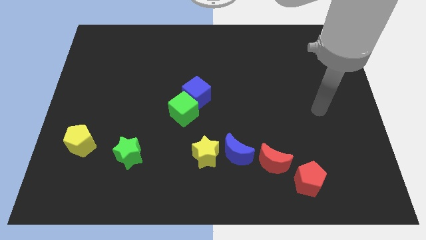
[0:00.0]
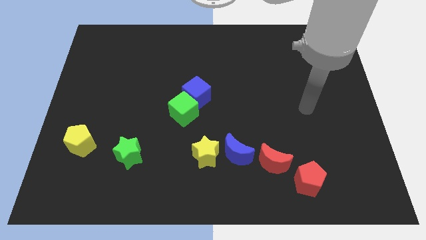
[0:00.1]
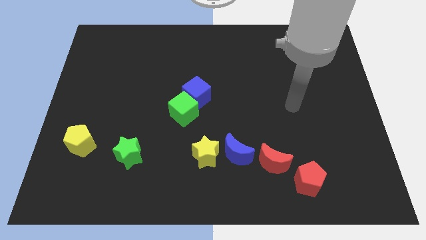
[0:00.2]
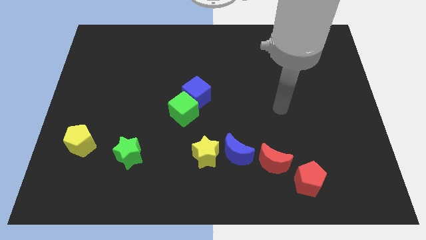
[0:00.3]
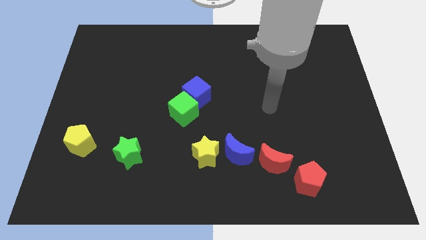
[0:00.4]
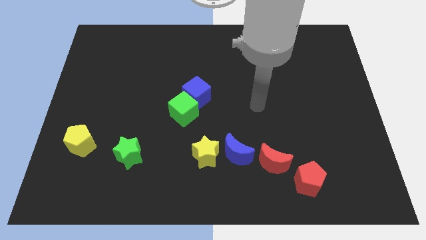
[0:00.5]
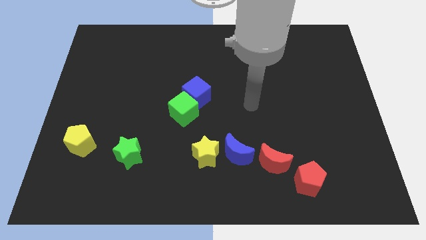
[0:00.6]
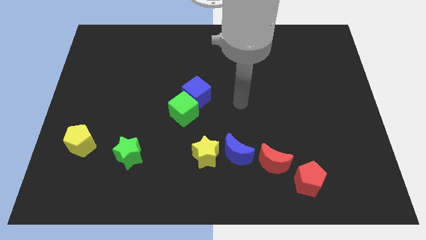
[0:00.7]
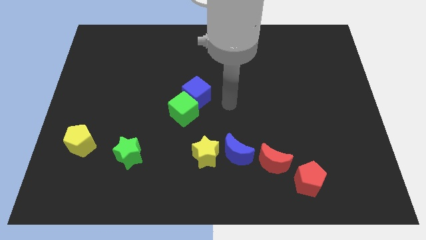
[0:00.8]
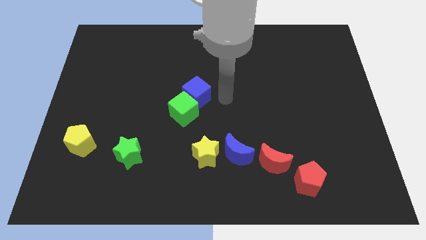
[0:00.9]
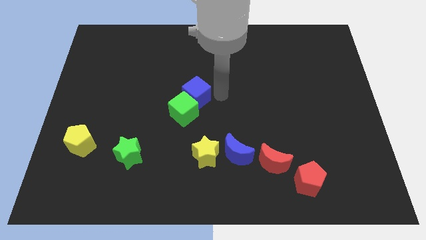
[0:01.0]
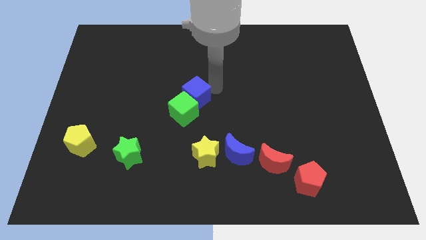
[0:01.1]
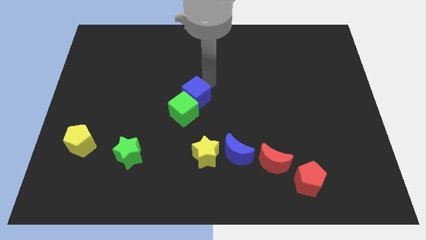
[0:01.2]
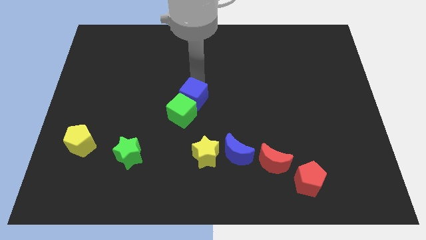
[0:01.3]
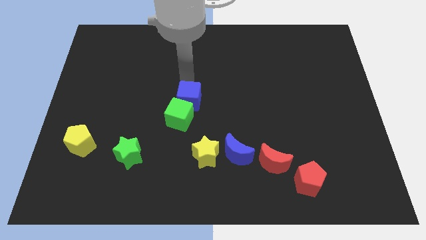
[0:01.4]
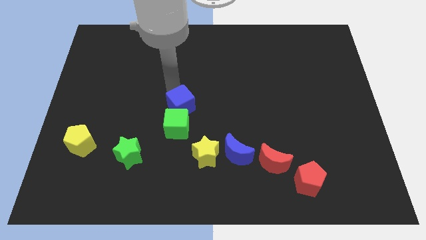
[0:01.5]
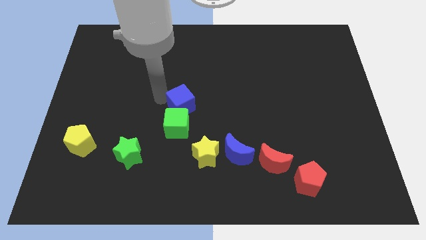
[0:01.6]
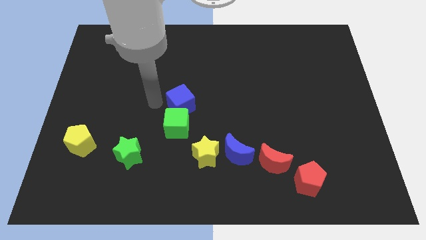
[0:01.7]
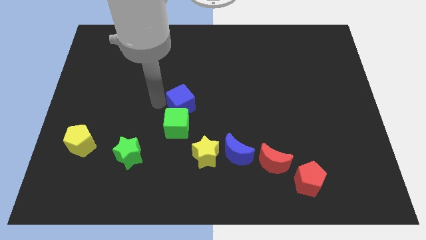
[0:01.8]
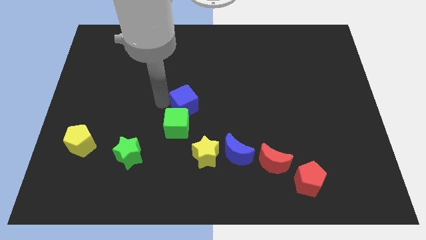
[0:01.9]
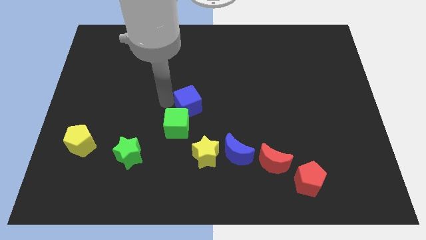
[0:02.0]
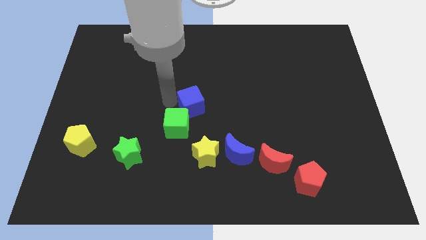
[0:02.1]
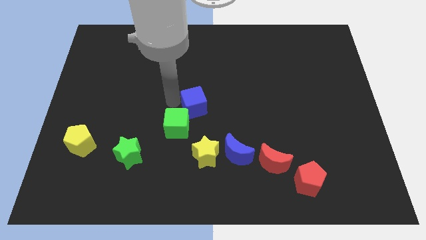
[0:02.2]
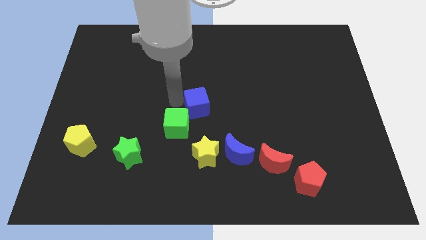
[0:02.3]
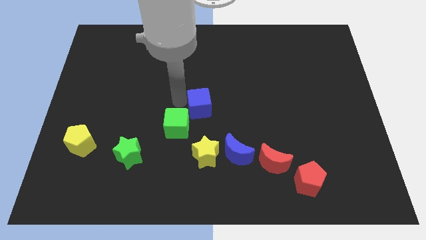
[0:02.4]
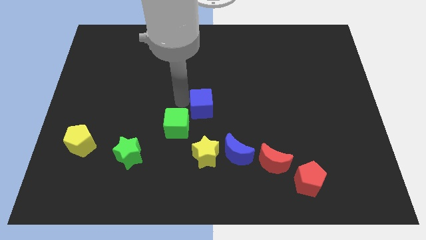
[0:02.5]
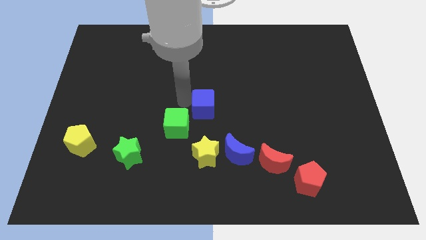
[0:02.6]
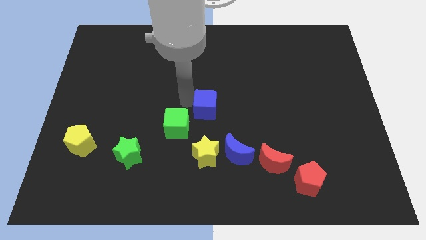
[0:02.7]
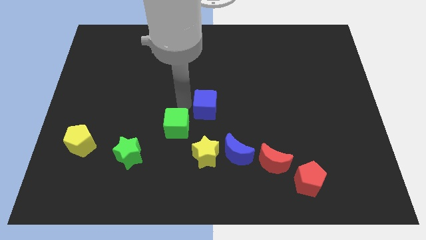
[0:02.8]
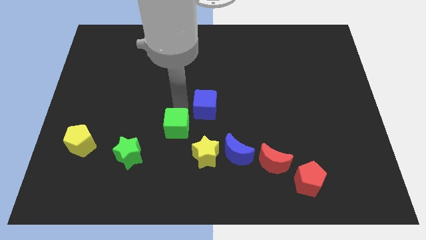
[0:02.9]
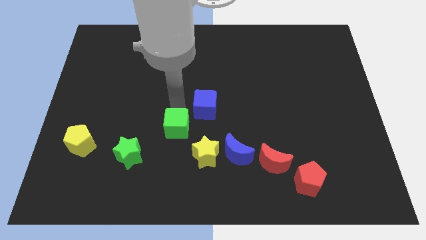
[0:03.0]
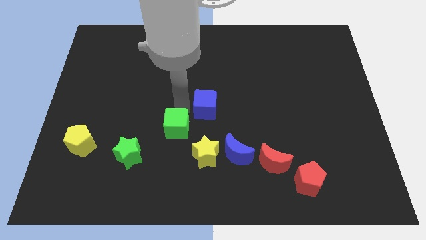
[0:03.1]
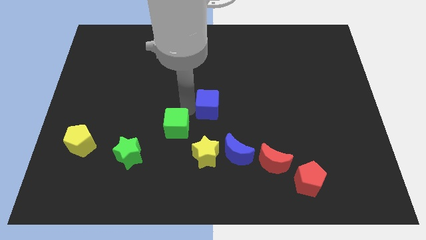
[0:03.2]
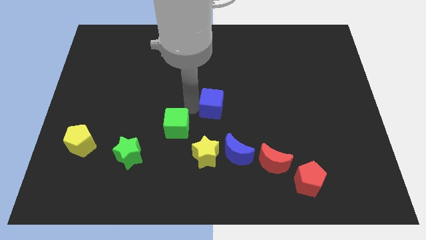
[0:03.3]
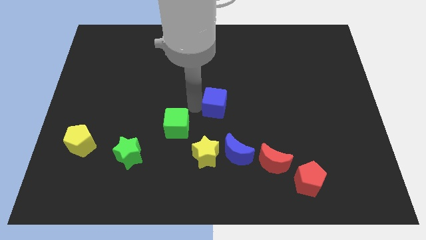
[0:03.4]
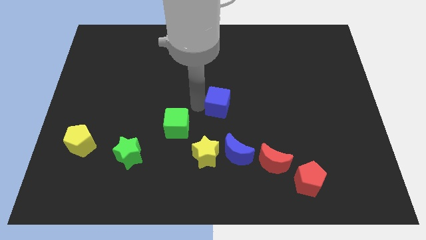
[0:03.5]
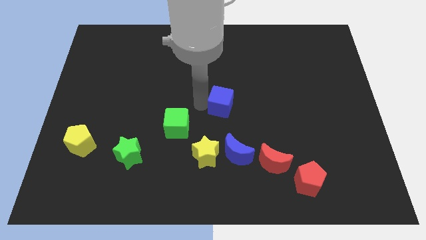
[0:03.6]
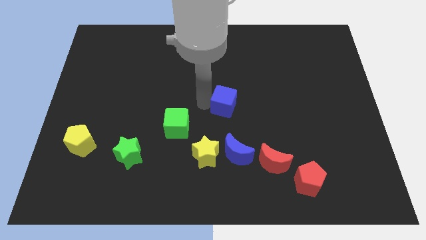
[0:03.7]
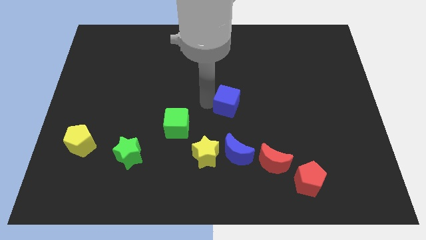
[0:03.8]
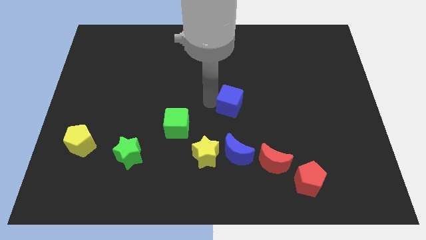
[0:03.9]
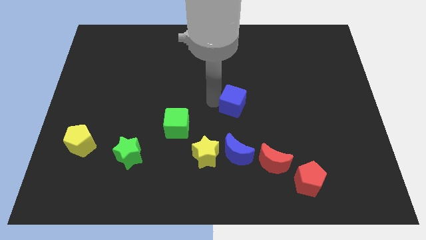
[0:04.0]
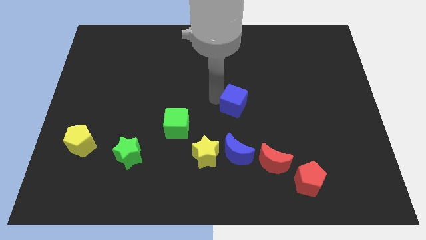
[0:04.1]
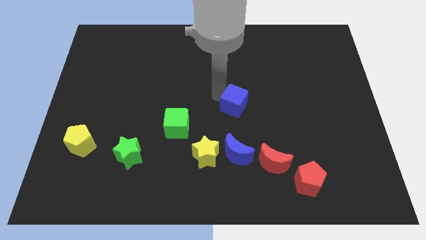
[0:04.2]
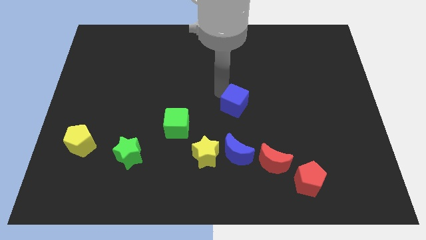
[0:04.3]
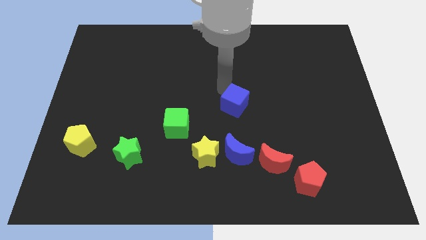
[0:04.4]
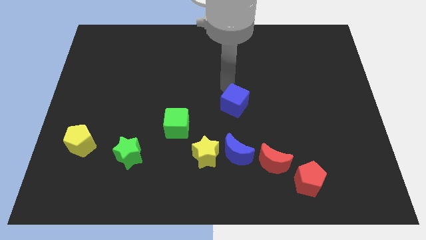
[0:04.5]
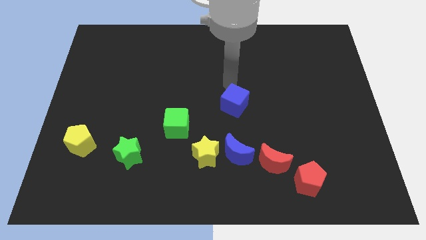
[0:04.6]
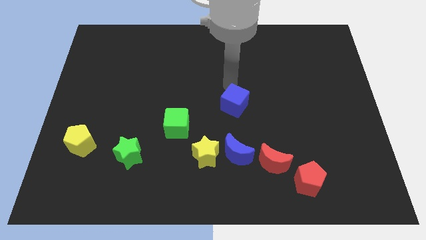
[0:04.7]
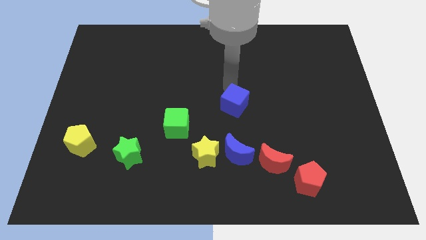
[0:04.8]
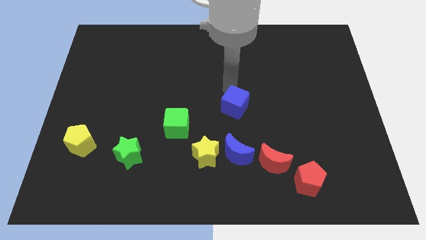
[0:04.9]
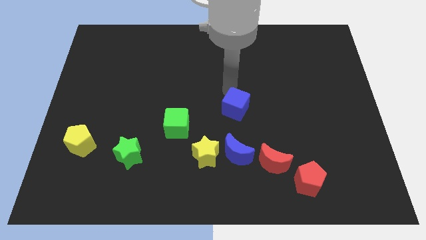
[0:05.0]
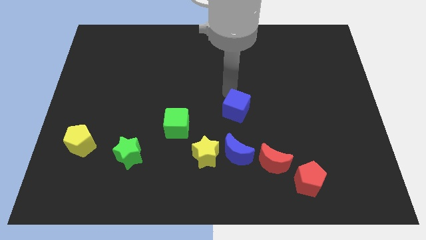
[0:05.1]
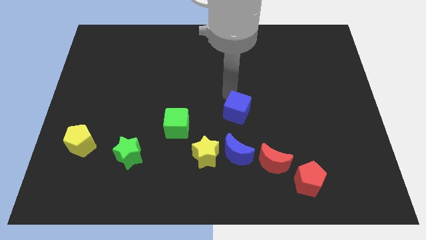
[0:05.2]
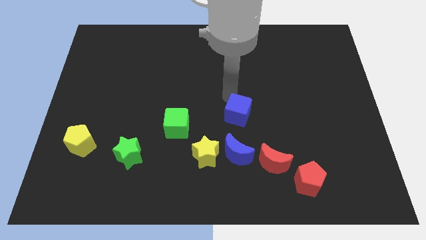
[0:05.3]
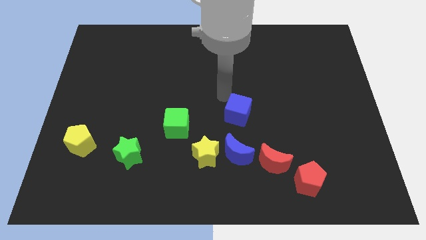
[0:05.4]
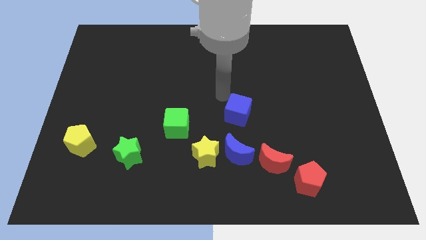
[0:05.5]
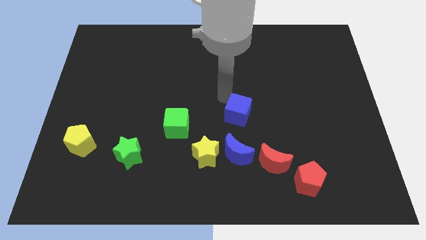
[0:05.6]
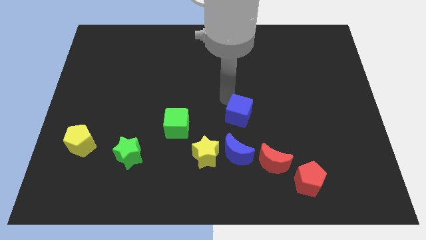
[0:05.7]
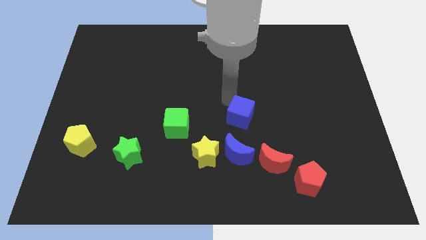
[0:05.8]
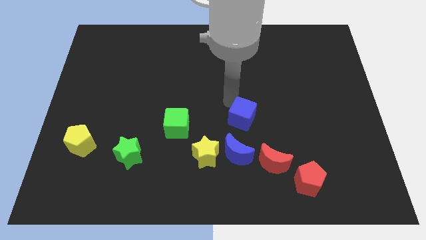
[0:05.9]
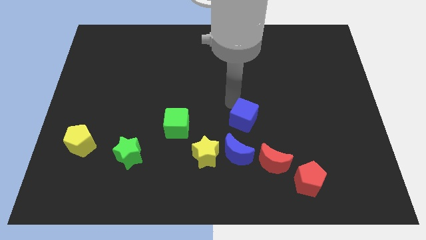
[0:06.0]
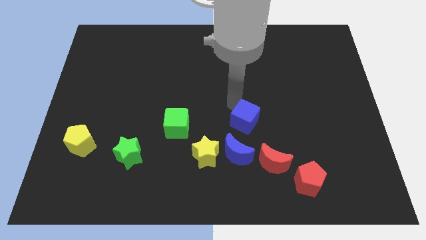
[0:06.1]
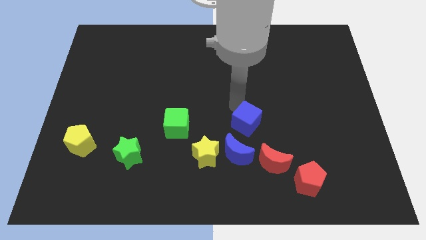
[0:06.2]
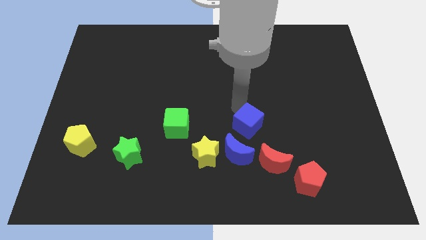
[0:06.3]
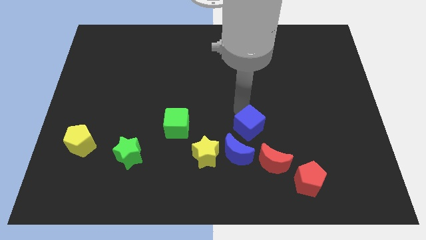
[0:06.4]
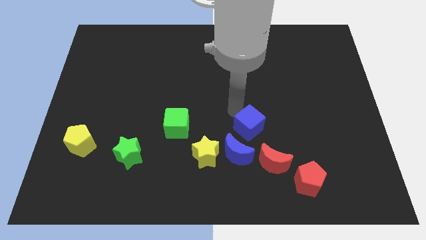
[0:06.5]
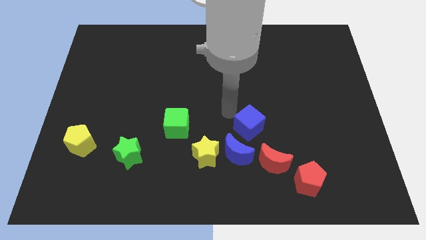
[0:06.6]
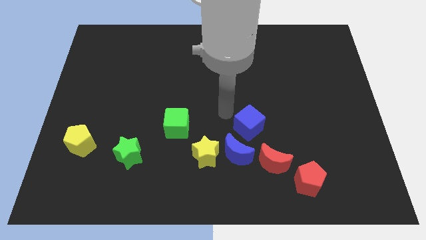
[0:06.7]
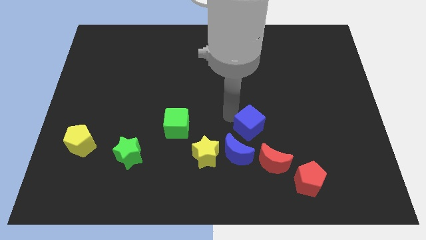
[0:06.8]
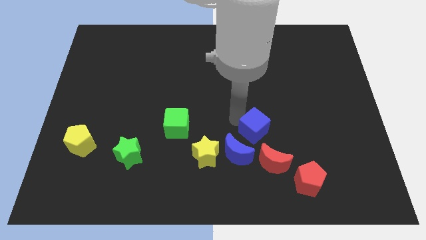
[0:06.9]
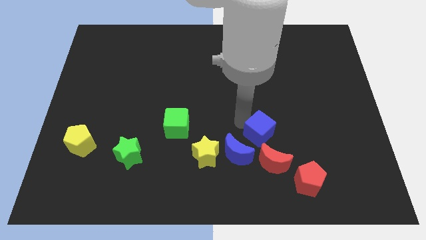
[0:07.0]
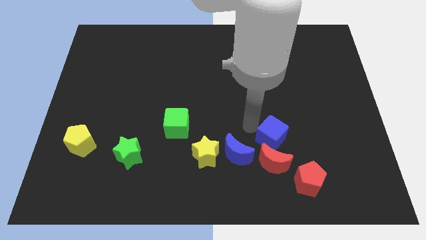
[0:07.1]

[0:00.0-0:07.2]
put the blue cube to the right side of the blue moon

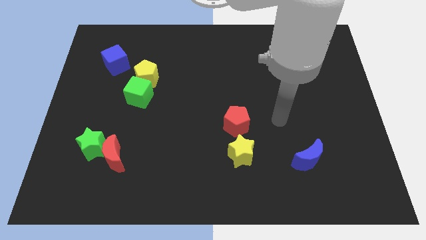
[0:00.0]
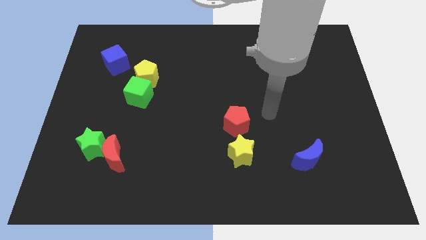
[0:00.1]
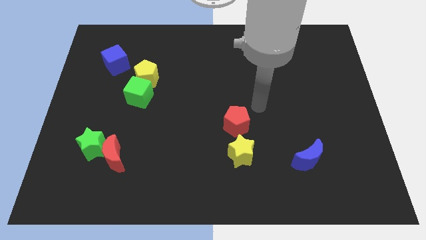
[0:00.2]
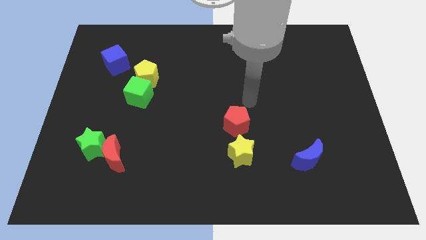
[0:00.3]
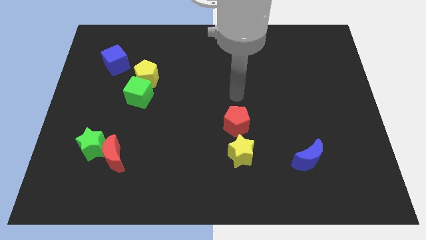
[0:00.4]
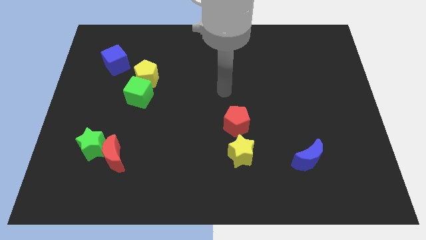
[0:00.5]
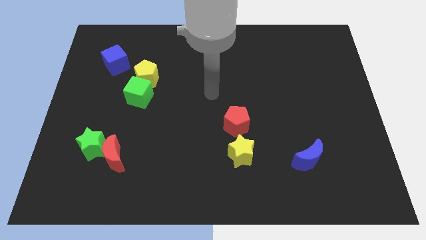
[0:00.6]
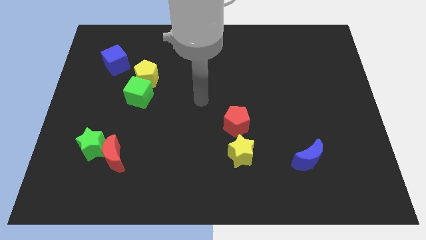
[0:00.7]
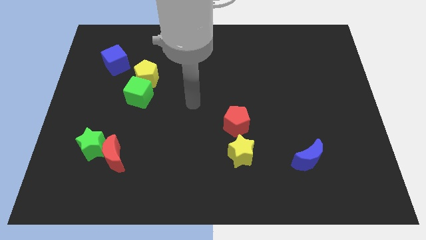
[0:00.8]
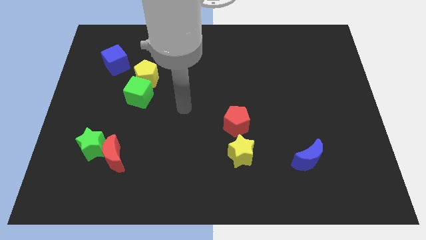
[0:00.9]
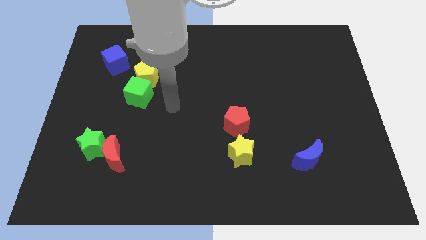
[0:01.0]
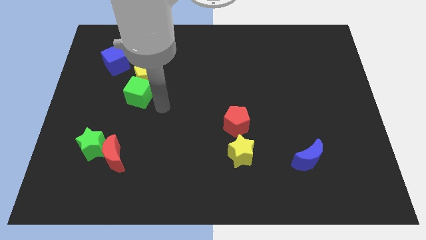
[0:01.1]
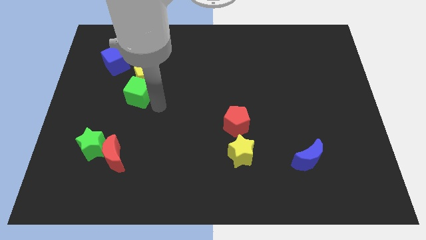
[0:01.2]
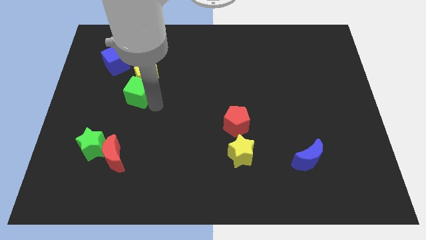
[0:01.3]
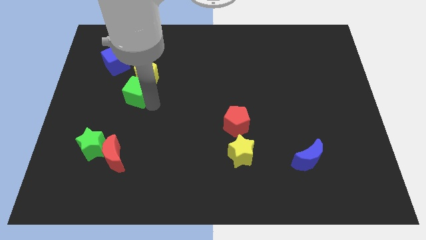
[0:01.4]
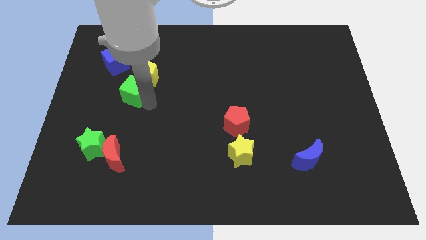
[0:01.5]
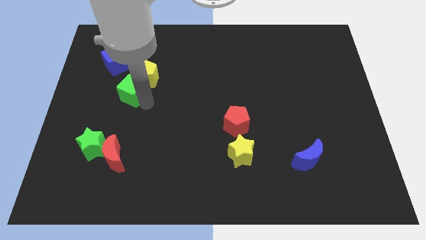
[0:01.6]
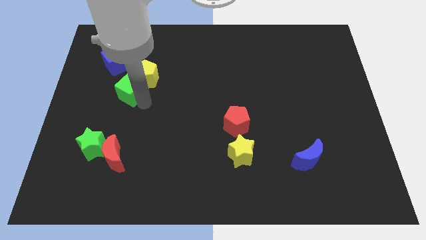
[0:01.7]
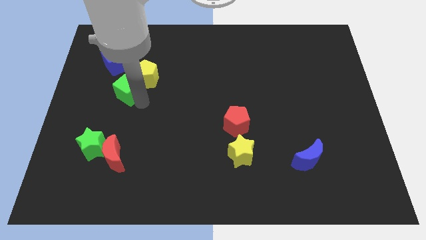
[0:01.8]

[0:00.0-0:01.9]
put the green cube to the left of the yellow pentagon
